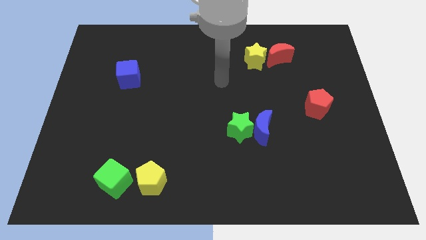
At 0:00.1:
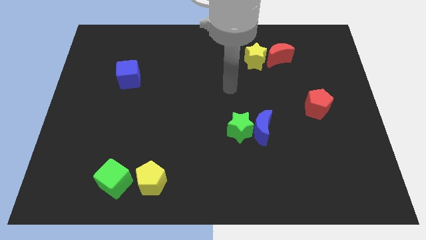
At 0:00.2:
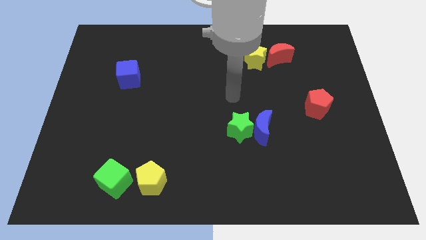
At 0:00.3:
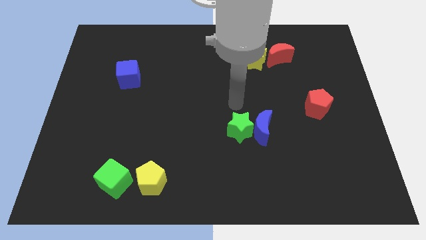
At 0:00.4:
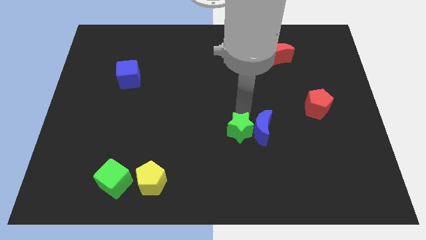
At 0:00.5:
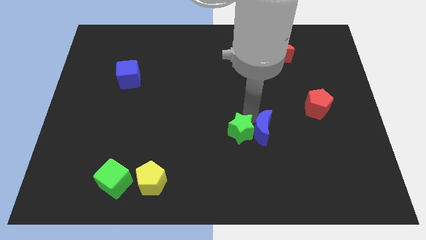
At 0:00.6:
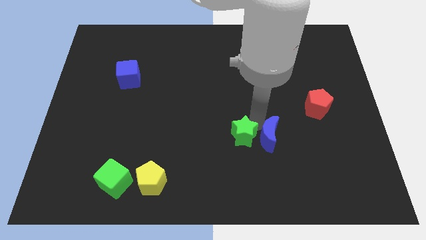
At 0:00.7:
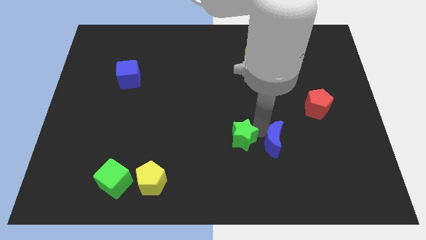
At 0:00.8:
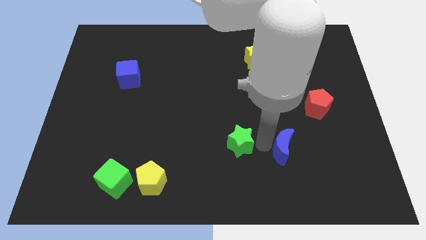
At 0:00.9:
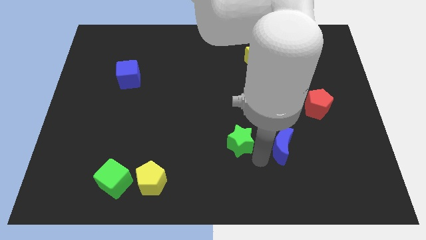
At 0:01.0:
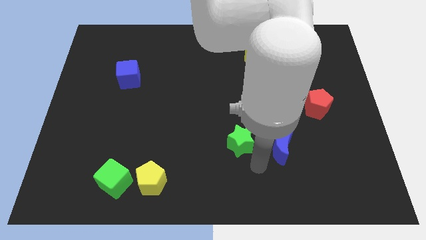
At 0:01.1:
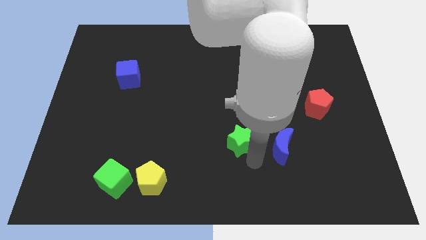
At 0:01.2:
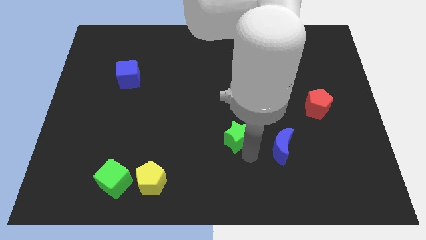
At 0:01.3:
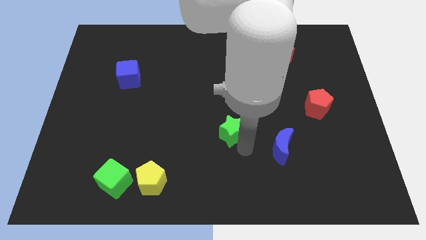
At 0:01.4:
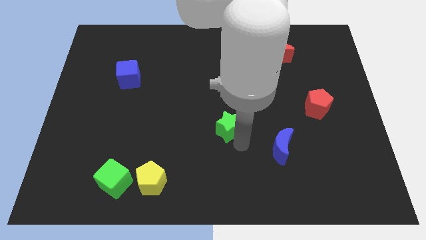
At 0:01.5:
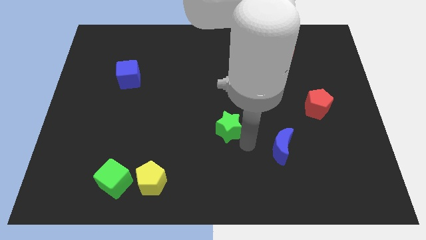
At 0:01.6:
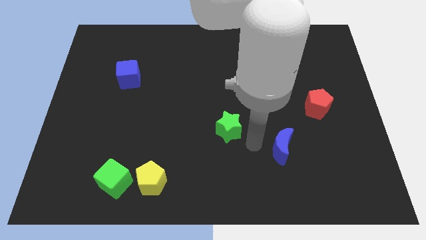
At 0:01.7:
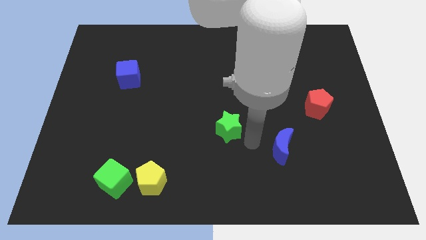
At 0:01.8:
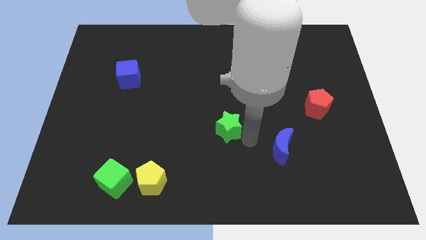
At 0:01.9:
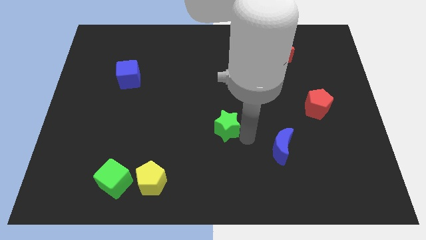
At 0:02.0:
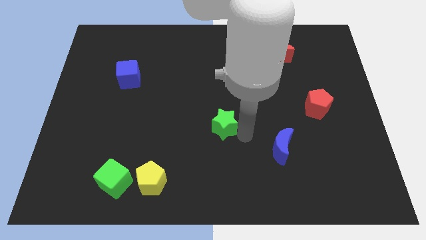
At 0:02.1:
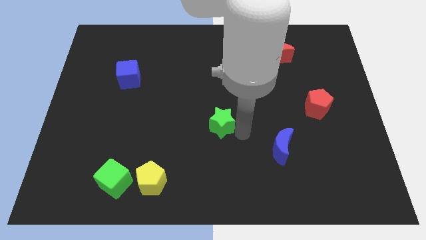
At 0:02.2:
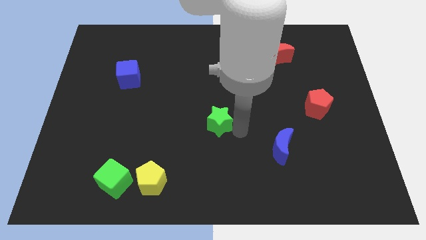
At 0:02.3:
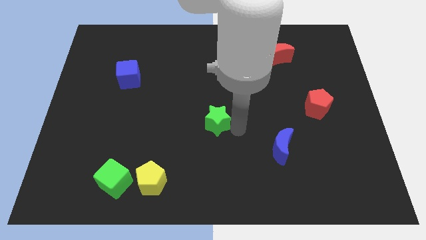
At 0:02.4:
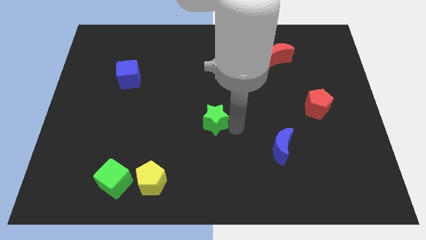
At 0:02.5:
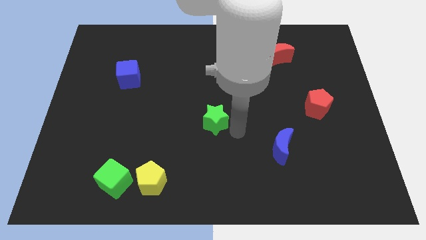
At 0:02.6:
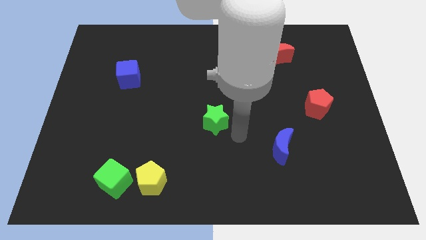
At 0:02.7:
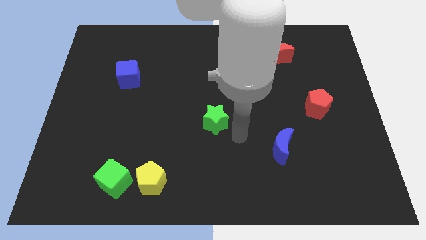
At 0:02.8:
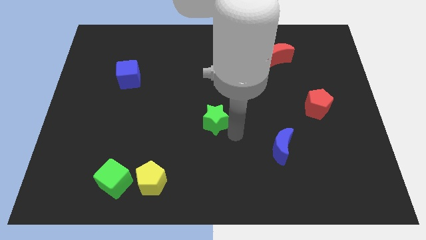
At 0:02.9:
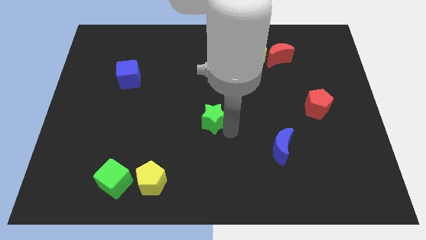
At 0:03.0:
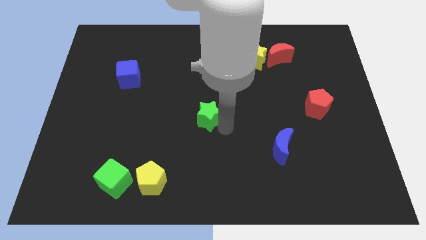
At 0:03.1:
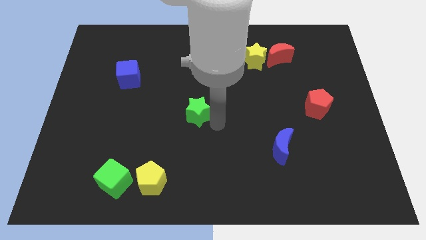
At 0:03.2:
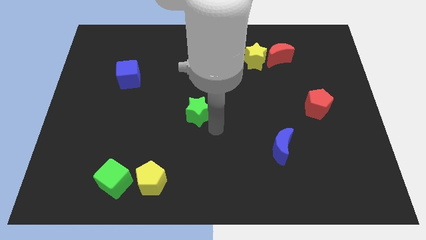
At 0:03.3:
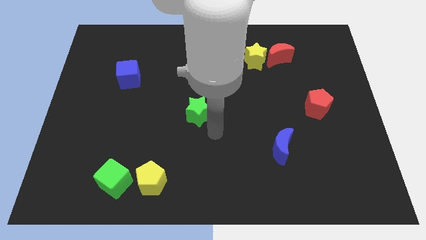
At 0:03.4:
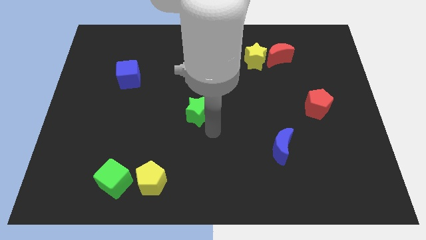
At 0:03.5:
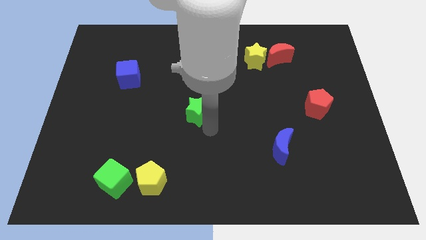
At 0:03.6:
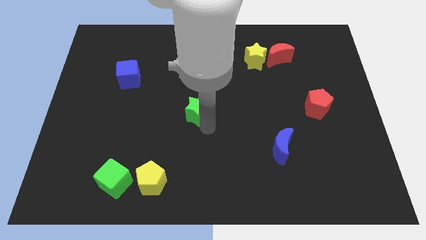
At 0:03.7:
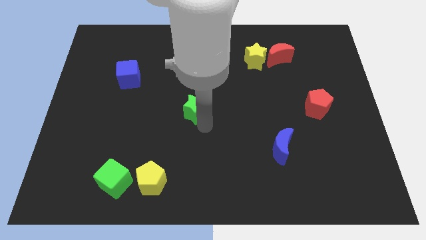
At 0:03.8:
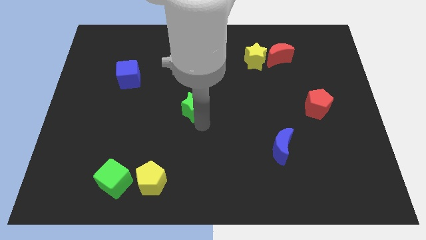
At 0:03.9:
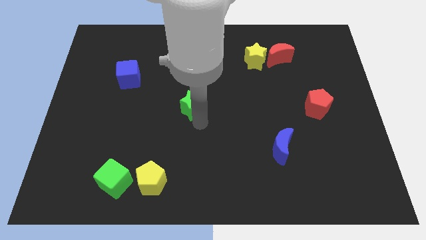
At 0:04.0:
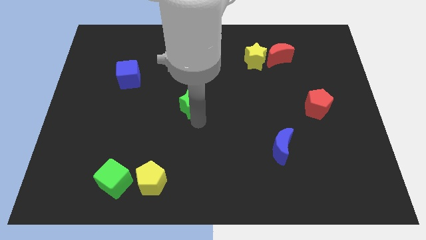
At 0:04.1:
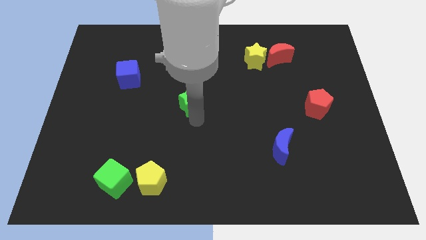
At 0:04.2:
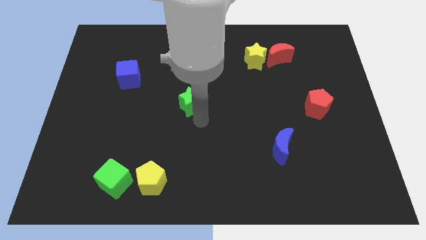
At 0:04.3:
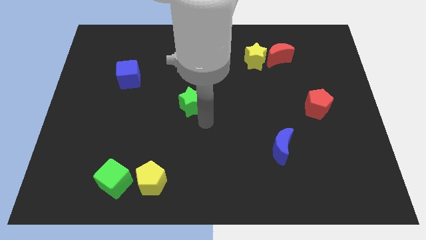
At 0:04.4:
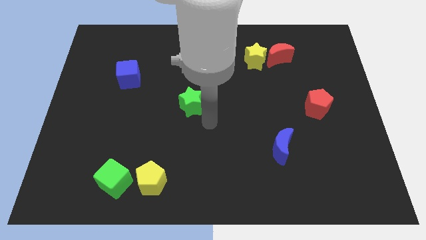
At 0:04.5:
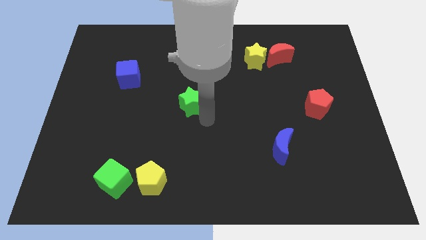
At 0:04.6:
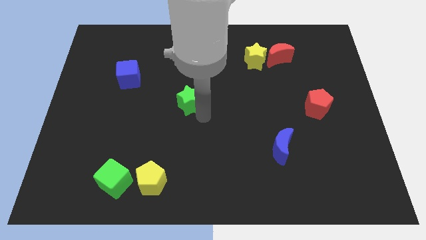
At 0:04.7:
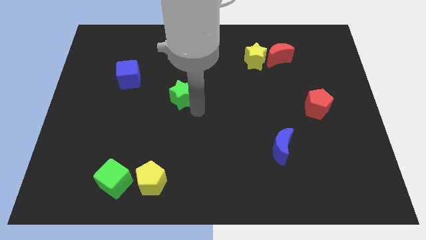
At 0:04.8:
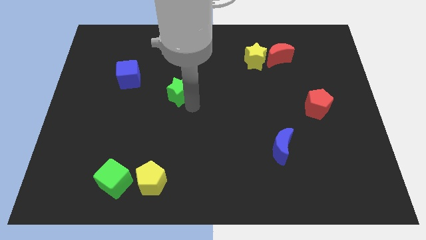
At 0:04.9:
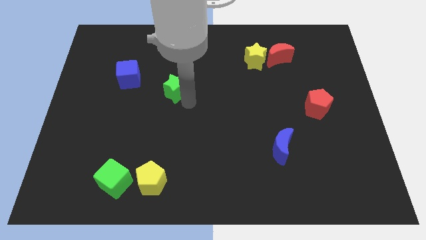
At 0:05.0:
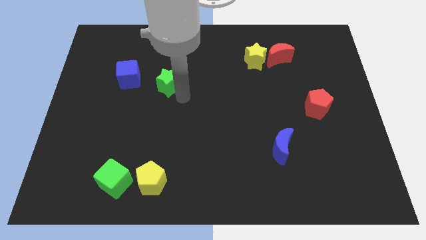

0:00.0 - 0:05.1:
move the green star up and then to the left

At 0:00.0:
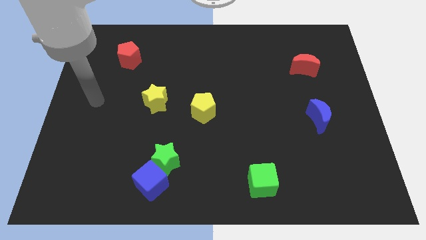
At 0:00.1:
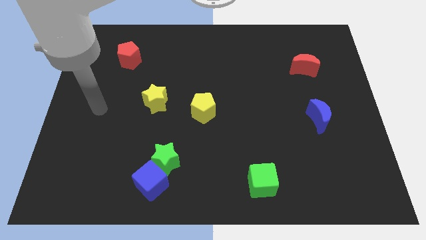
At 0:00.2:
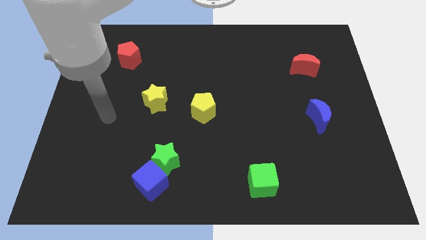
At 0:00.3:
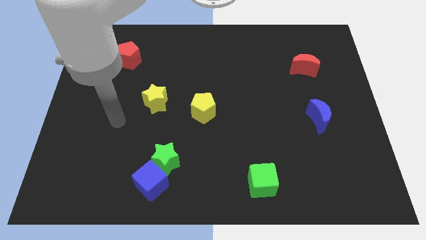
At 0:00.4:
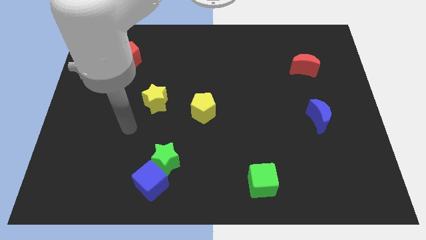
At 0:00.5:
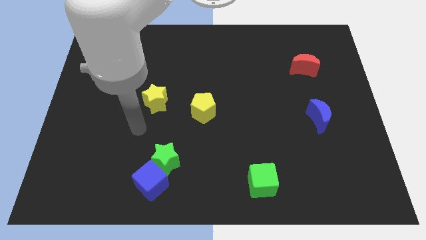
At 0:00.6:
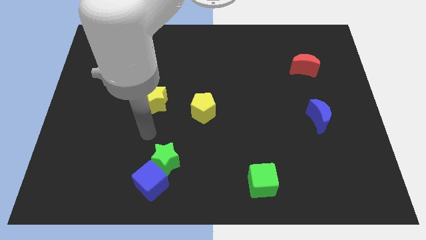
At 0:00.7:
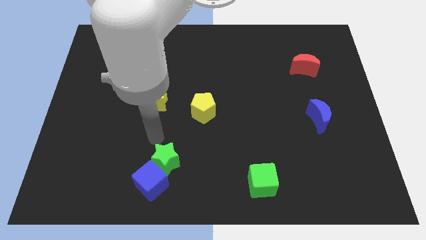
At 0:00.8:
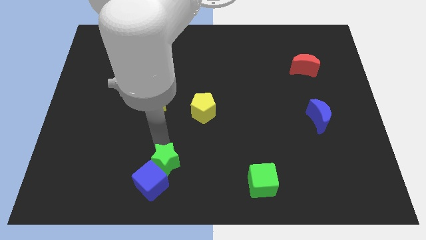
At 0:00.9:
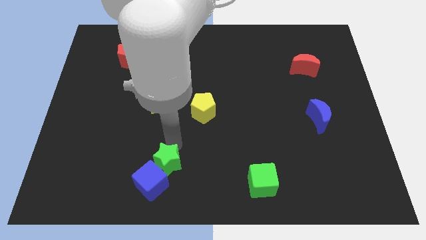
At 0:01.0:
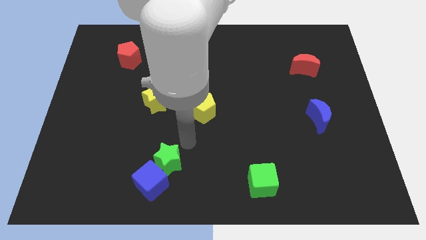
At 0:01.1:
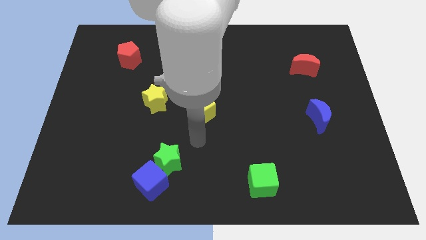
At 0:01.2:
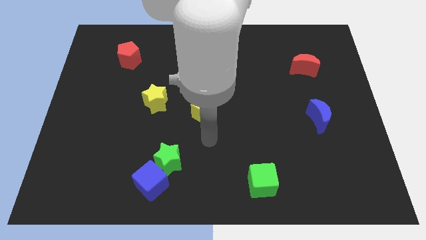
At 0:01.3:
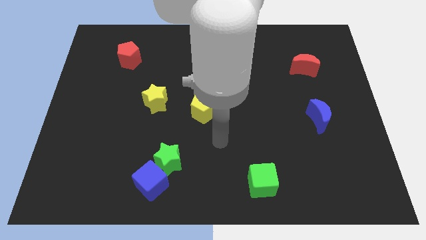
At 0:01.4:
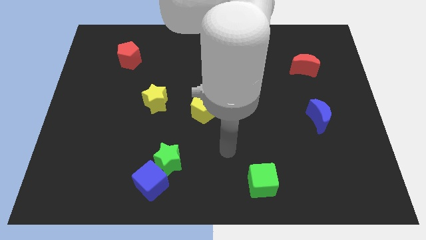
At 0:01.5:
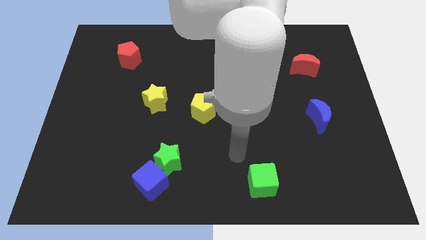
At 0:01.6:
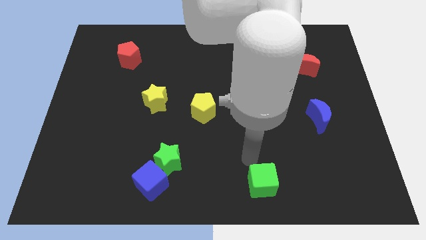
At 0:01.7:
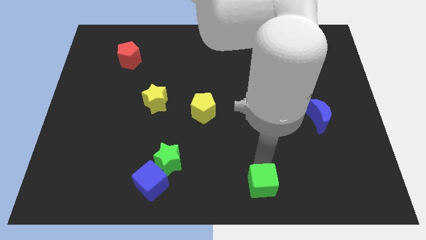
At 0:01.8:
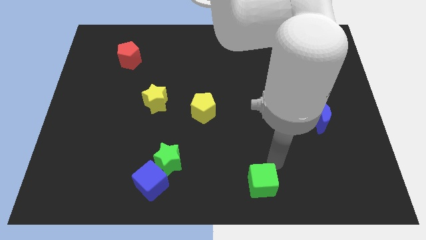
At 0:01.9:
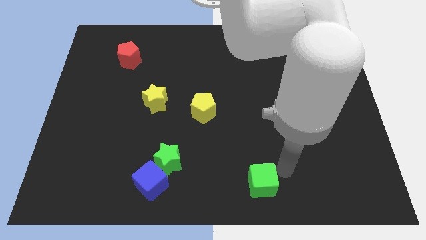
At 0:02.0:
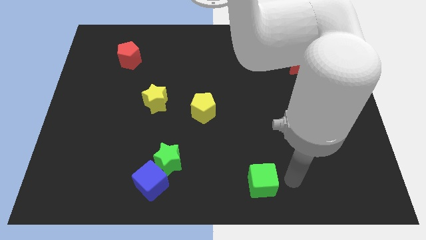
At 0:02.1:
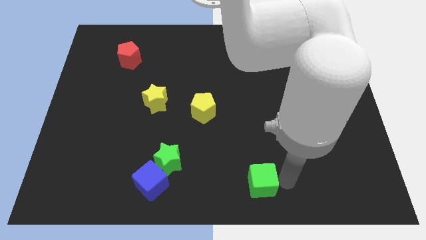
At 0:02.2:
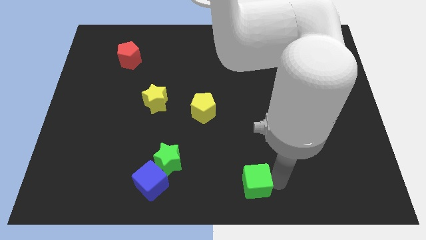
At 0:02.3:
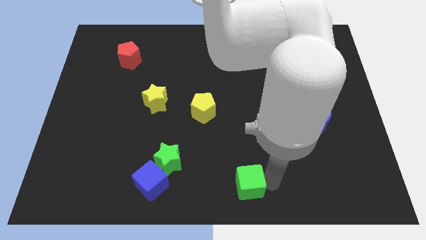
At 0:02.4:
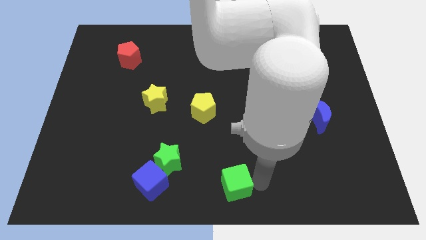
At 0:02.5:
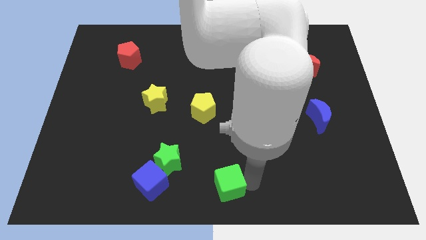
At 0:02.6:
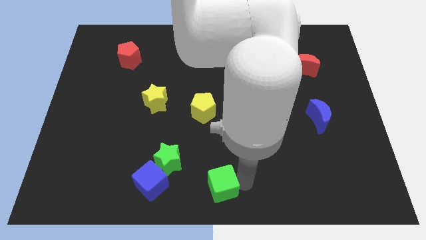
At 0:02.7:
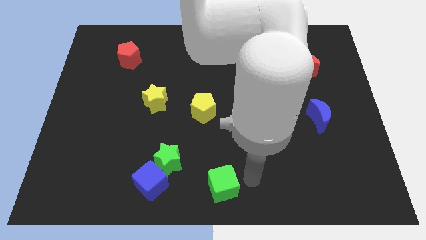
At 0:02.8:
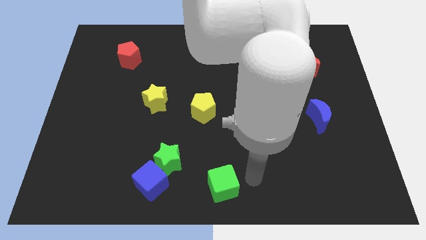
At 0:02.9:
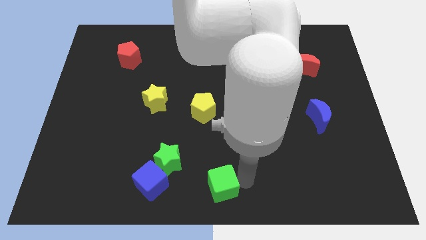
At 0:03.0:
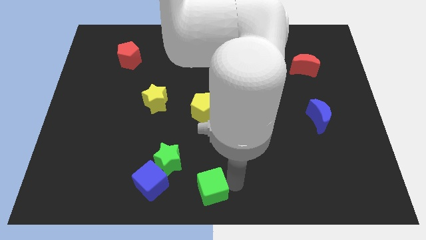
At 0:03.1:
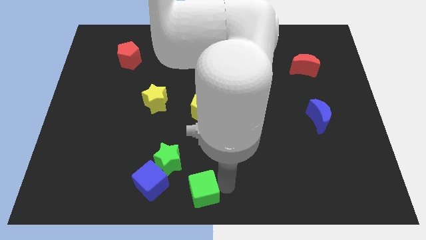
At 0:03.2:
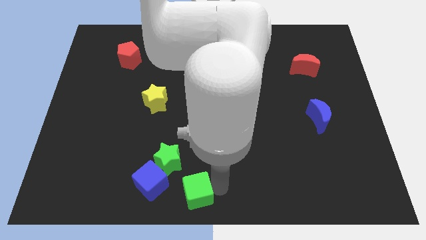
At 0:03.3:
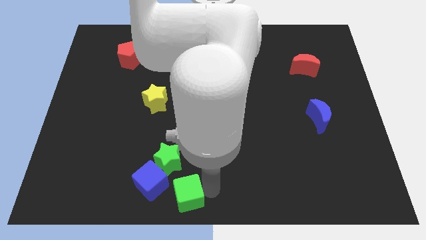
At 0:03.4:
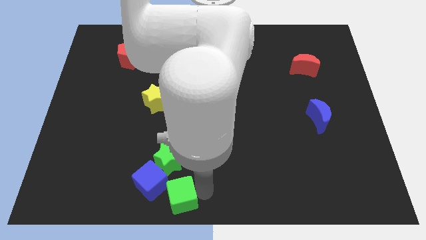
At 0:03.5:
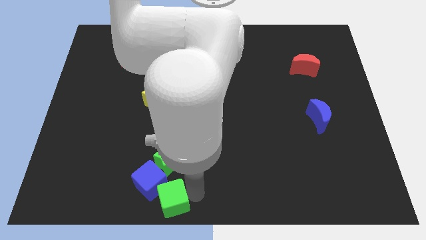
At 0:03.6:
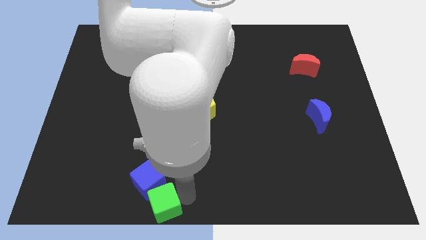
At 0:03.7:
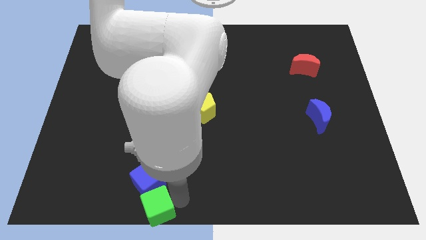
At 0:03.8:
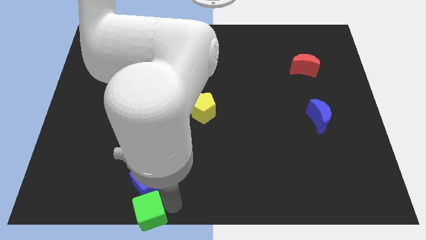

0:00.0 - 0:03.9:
slide the green cube to the left
